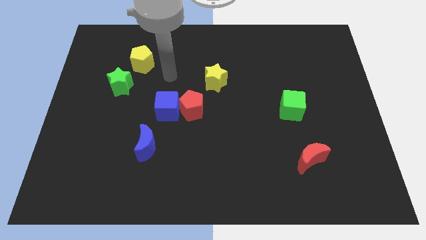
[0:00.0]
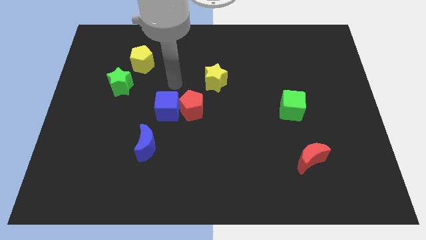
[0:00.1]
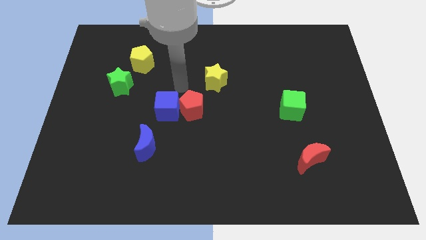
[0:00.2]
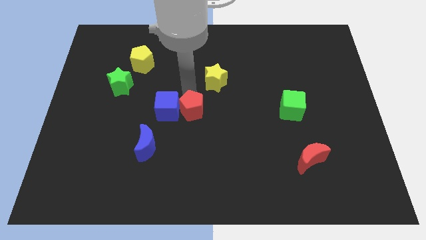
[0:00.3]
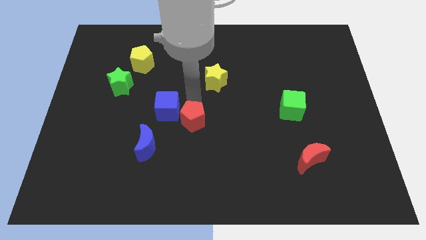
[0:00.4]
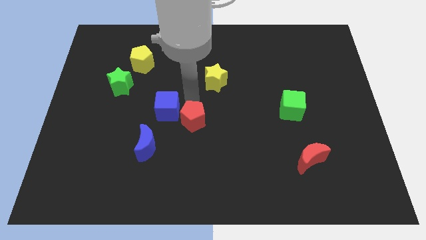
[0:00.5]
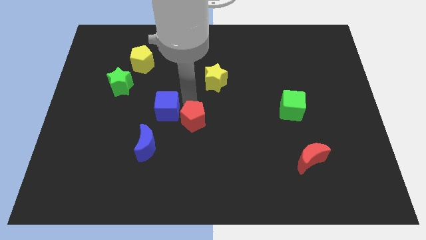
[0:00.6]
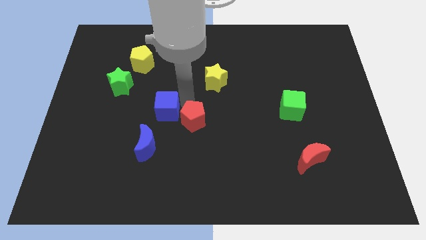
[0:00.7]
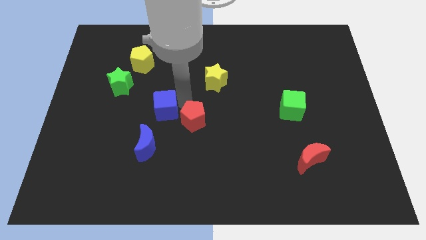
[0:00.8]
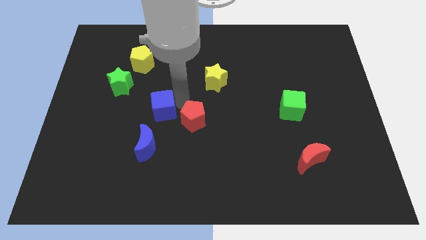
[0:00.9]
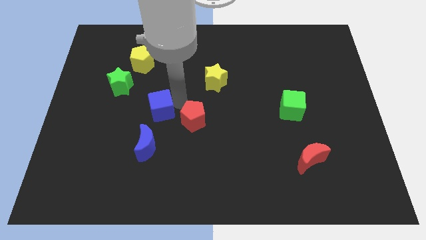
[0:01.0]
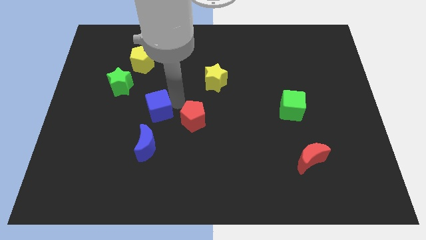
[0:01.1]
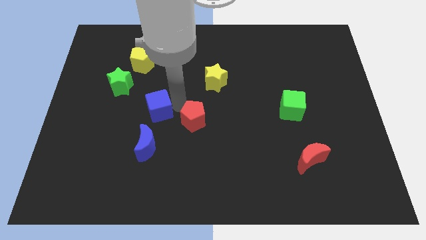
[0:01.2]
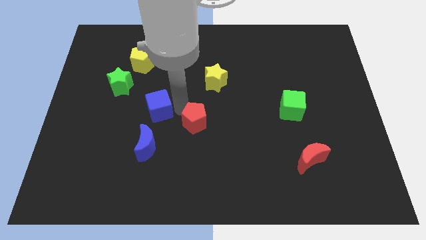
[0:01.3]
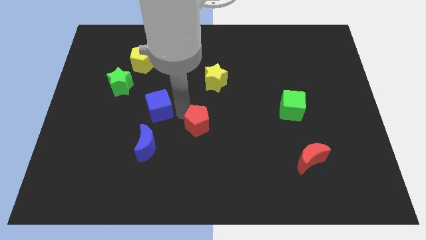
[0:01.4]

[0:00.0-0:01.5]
move the blue cube away from the red pentagon

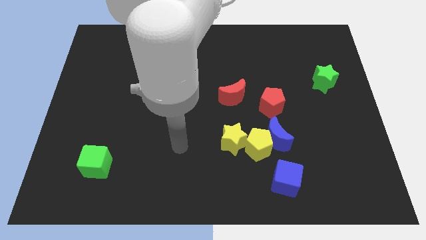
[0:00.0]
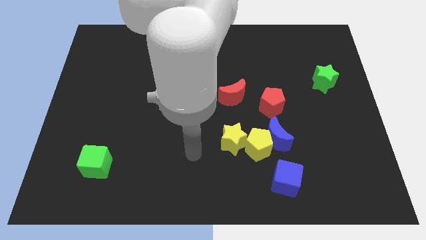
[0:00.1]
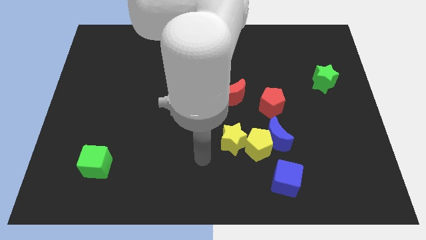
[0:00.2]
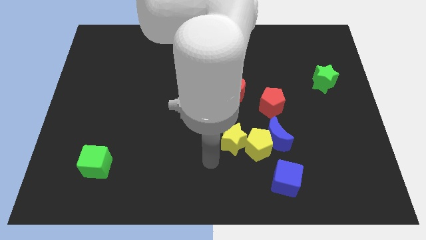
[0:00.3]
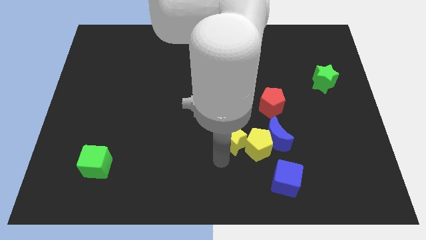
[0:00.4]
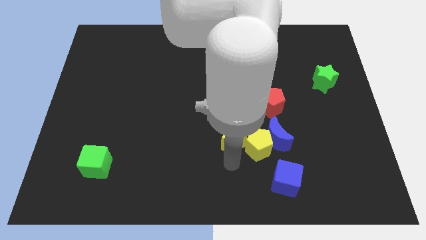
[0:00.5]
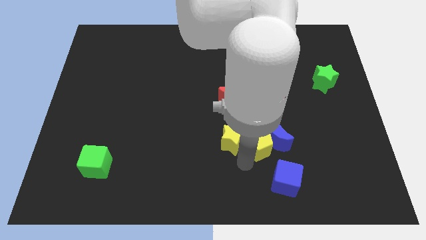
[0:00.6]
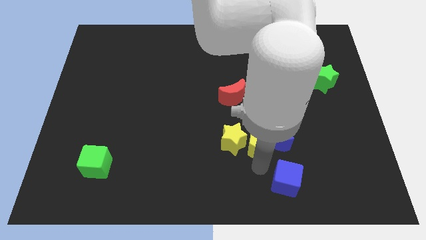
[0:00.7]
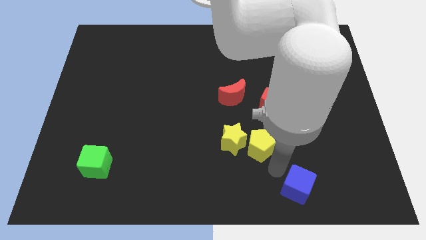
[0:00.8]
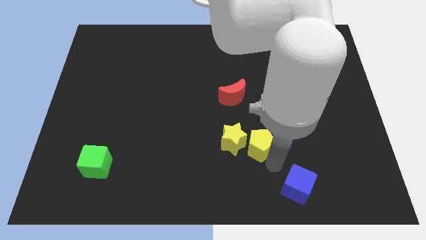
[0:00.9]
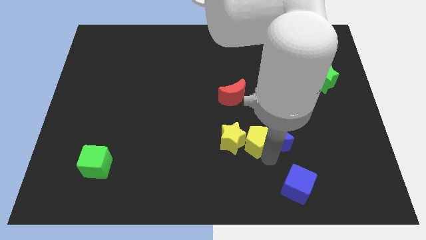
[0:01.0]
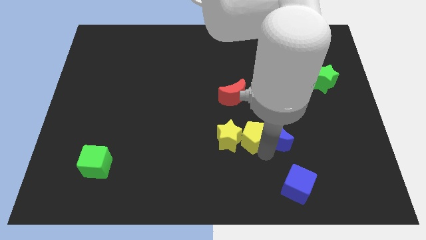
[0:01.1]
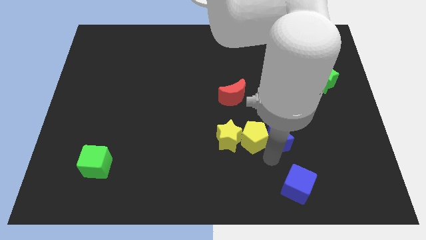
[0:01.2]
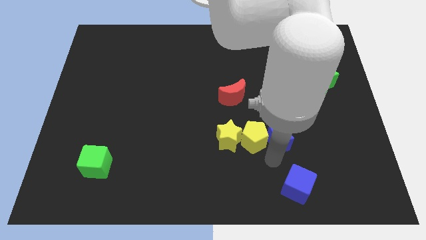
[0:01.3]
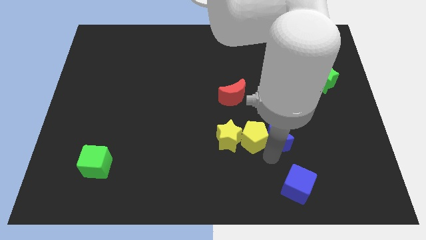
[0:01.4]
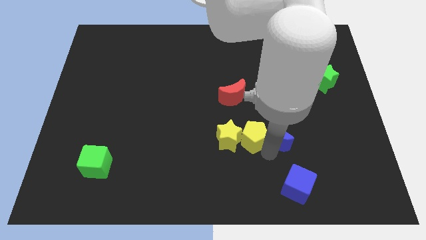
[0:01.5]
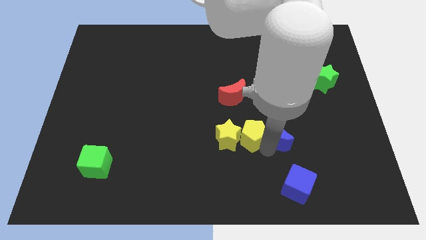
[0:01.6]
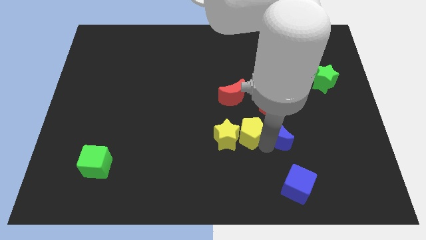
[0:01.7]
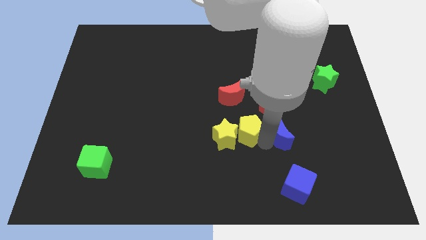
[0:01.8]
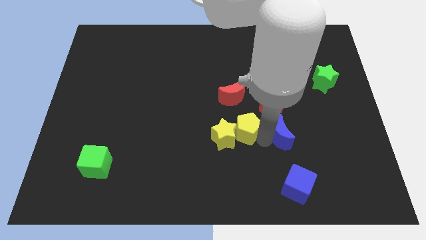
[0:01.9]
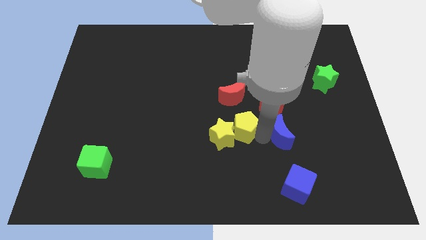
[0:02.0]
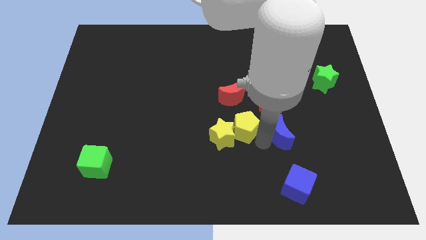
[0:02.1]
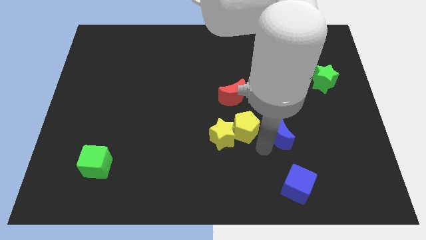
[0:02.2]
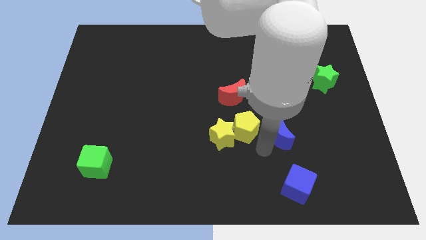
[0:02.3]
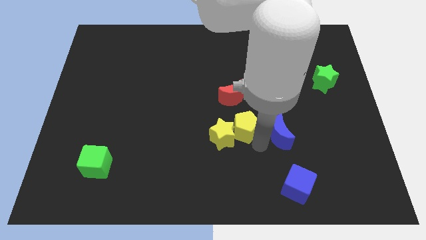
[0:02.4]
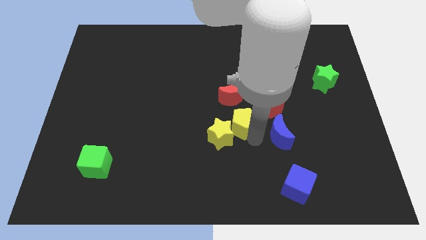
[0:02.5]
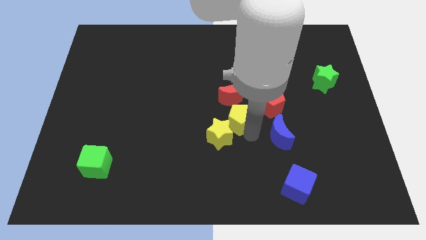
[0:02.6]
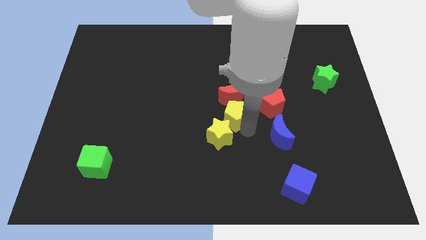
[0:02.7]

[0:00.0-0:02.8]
separate the yellow pentagon from the group of blocks

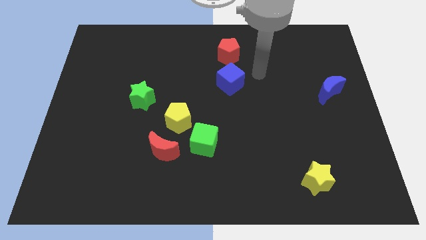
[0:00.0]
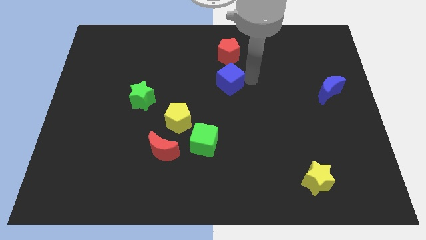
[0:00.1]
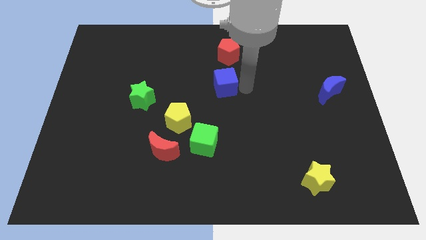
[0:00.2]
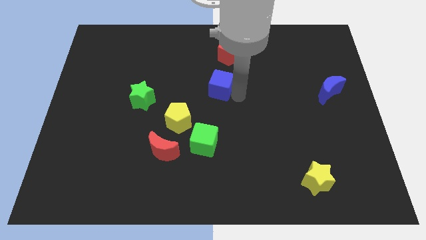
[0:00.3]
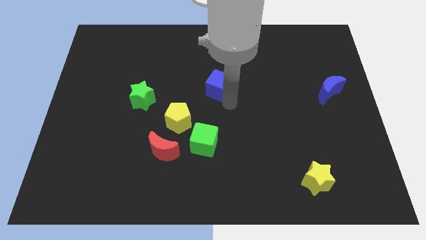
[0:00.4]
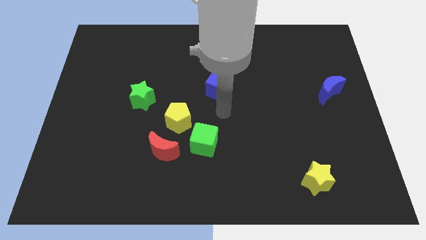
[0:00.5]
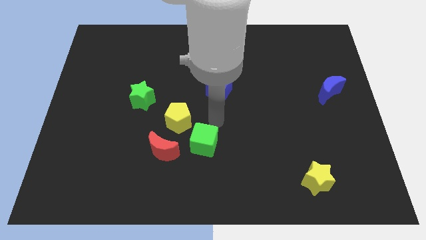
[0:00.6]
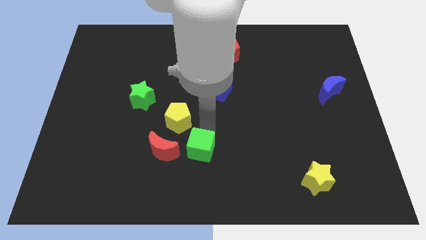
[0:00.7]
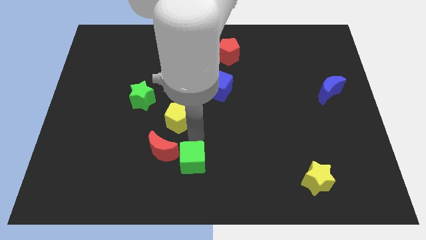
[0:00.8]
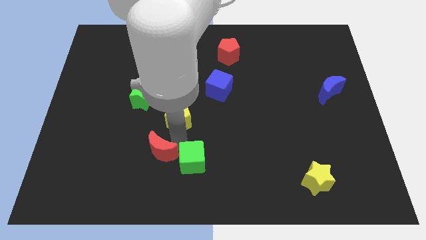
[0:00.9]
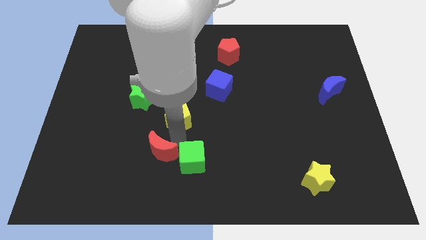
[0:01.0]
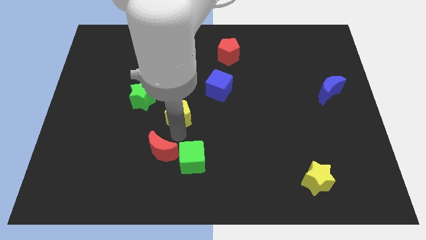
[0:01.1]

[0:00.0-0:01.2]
pull the yellow pentagon apart from the green cube and red moon

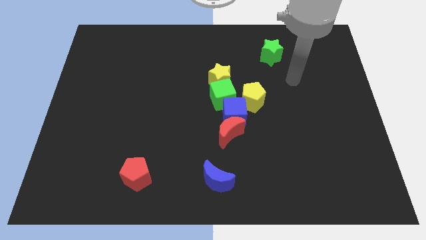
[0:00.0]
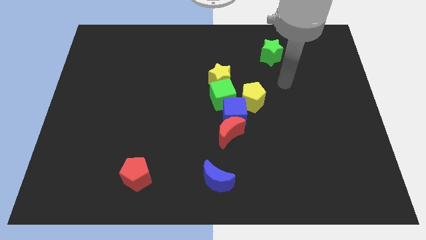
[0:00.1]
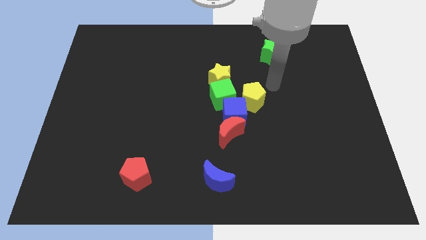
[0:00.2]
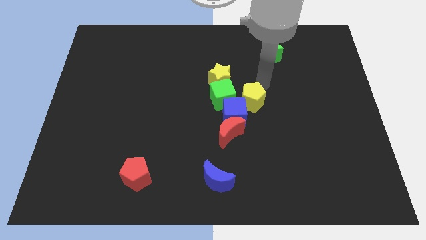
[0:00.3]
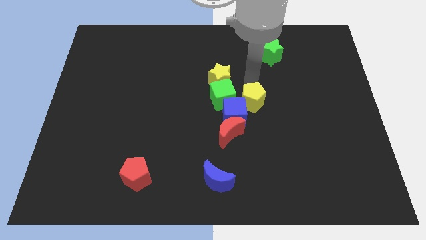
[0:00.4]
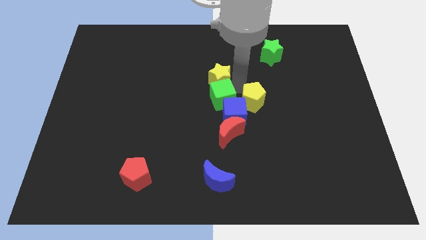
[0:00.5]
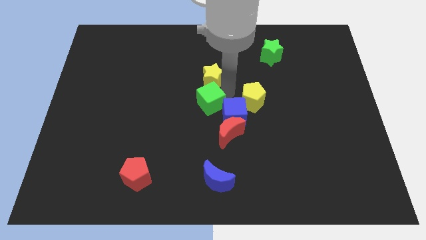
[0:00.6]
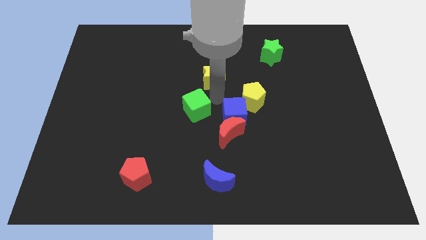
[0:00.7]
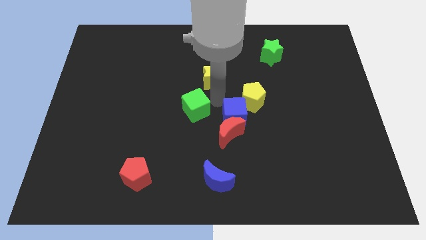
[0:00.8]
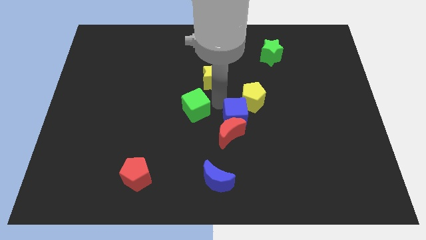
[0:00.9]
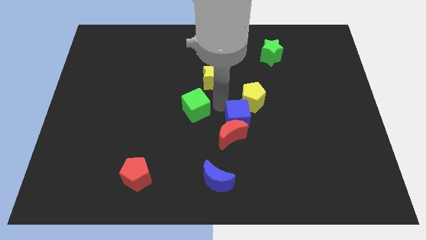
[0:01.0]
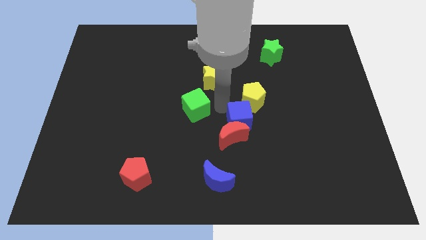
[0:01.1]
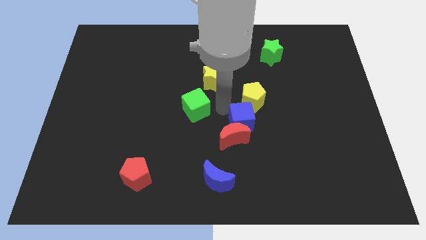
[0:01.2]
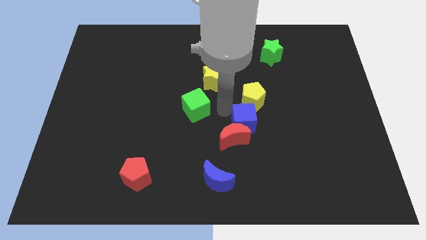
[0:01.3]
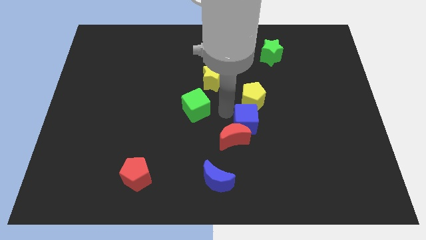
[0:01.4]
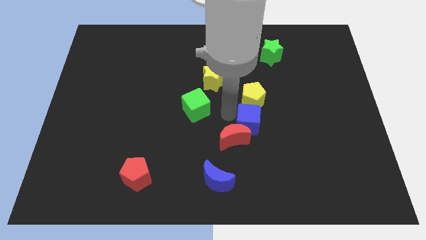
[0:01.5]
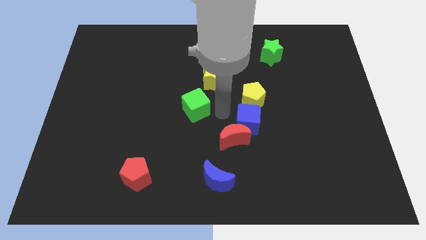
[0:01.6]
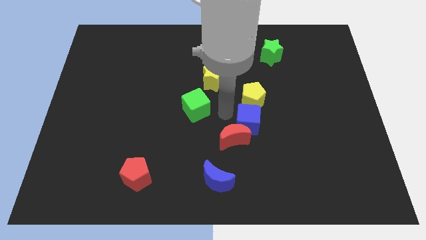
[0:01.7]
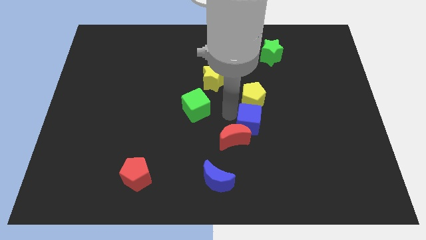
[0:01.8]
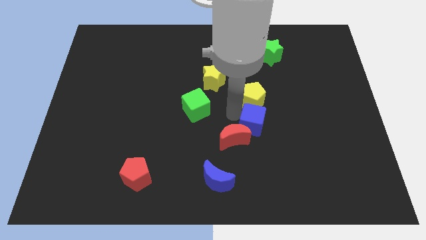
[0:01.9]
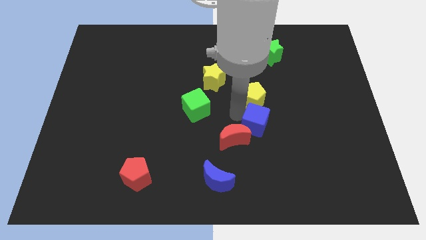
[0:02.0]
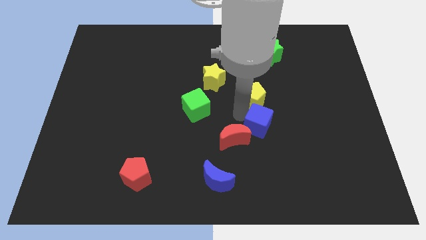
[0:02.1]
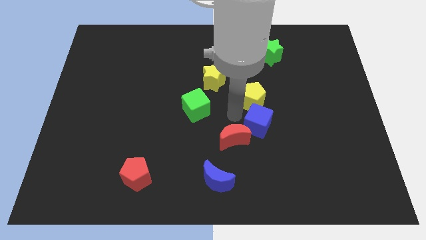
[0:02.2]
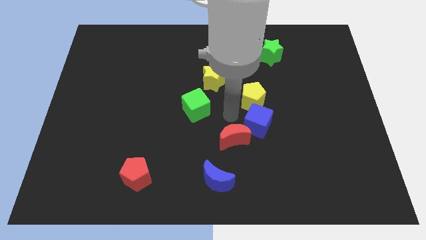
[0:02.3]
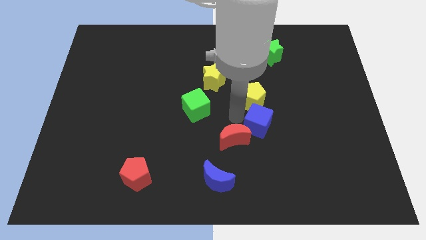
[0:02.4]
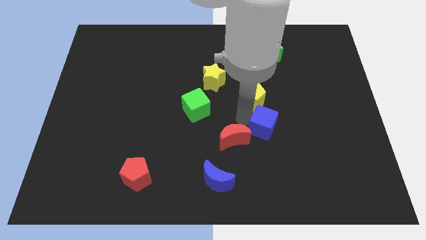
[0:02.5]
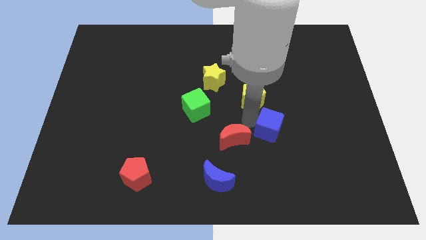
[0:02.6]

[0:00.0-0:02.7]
separate the blue cube from the group of blocks

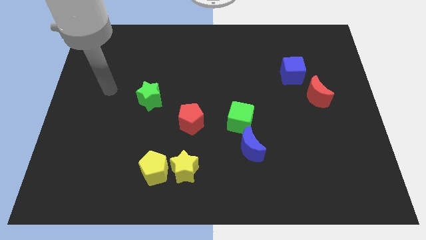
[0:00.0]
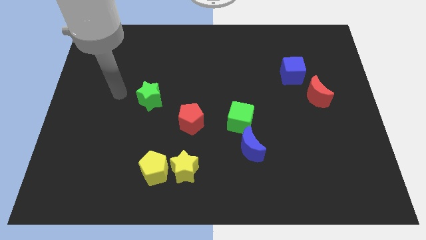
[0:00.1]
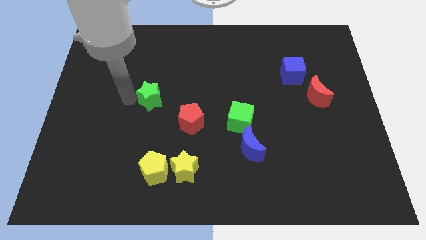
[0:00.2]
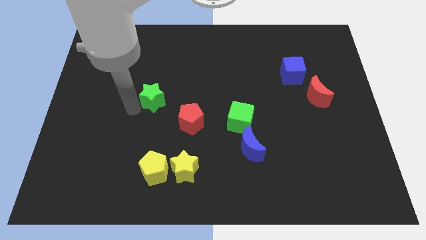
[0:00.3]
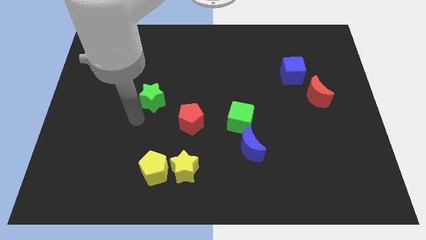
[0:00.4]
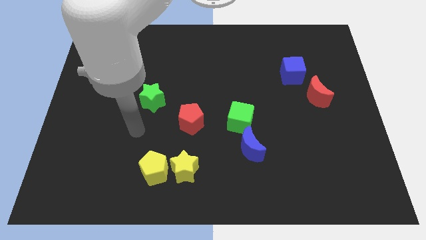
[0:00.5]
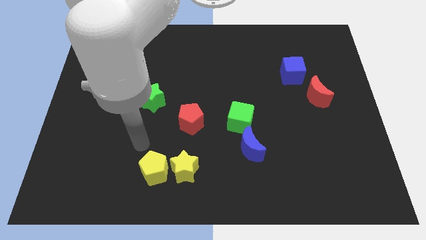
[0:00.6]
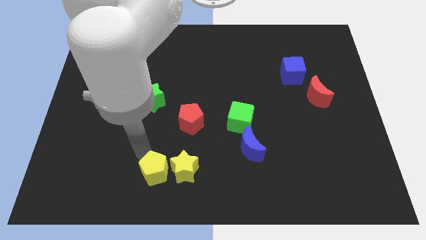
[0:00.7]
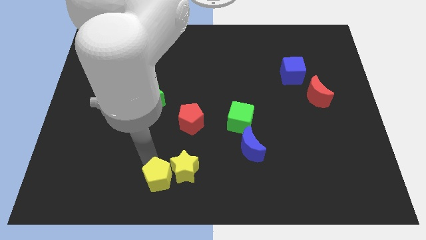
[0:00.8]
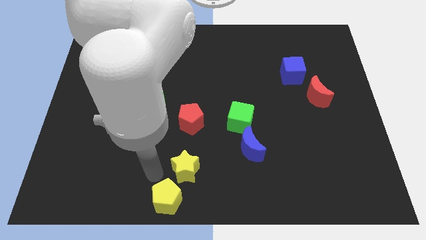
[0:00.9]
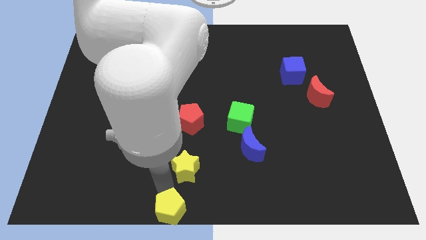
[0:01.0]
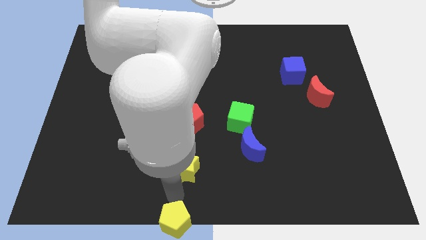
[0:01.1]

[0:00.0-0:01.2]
pull the yellow star apart from the yellow pentagon
